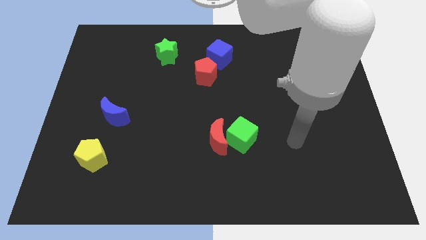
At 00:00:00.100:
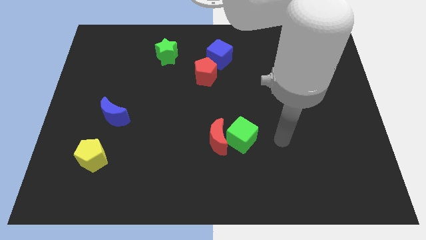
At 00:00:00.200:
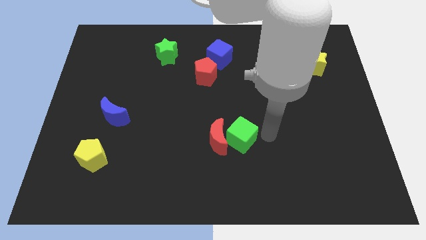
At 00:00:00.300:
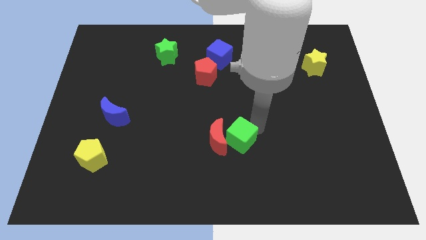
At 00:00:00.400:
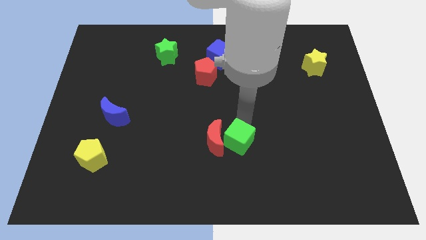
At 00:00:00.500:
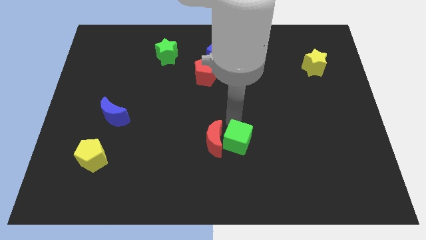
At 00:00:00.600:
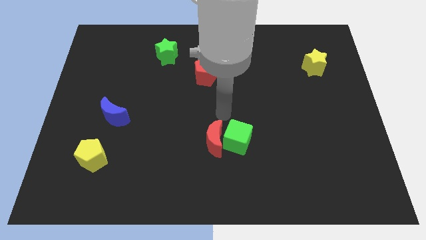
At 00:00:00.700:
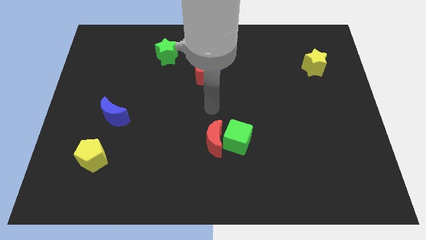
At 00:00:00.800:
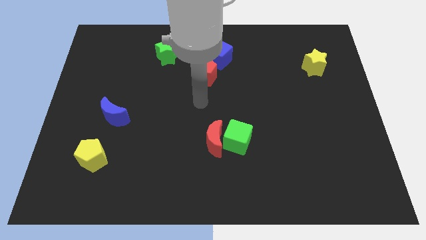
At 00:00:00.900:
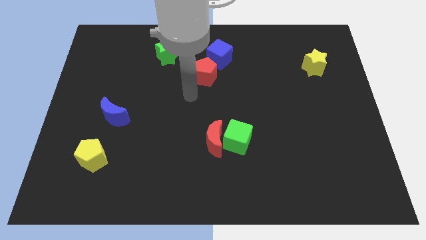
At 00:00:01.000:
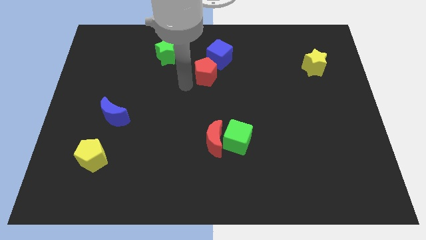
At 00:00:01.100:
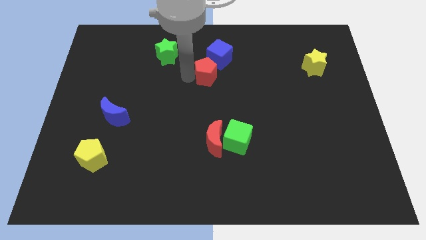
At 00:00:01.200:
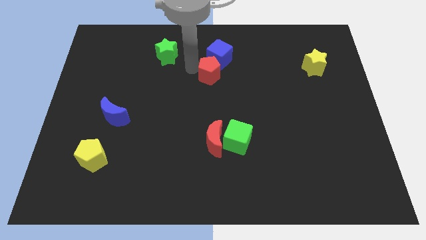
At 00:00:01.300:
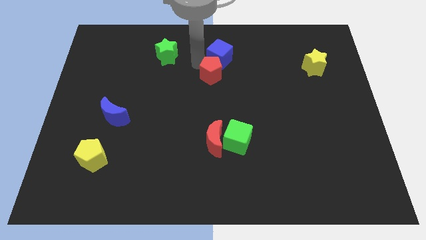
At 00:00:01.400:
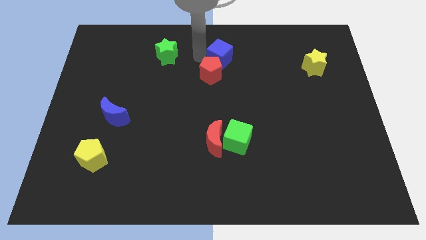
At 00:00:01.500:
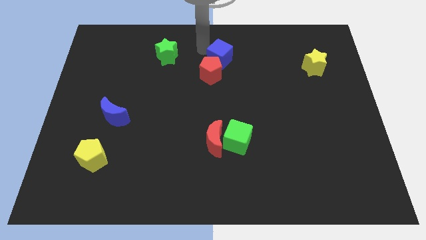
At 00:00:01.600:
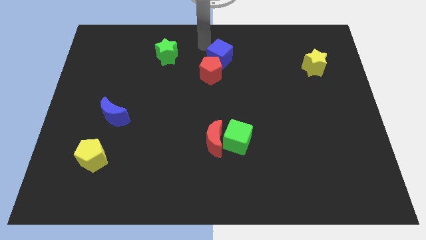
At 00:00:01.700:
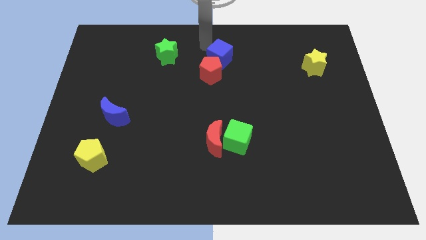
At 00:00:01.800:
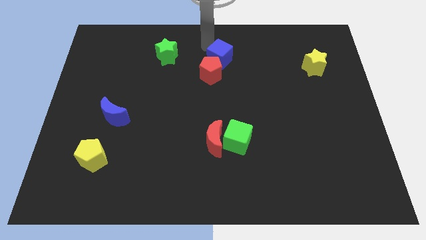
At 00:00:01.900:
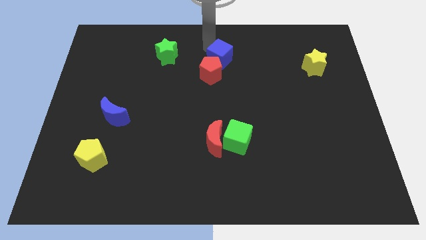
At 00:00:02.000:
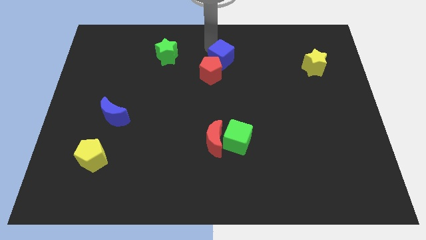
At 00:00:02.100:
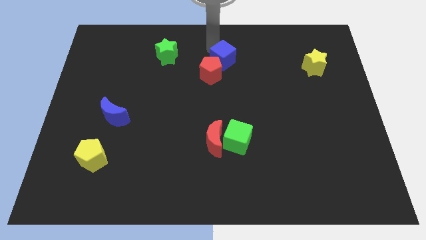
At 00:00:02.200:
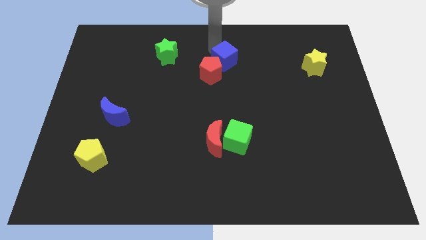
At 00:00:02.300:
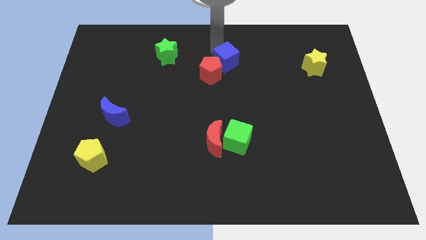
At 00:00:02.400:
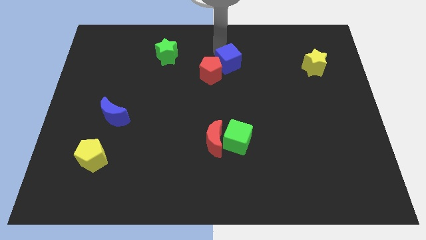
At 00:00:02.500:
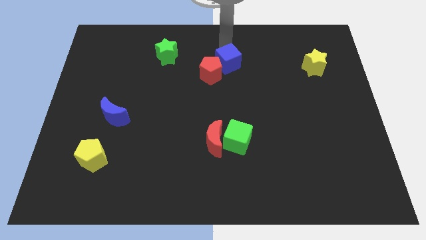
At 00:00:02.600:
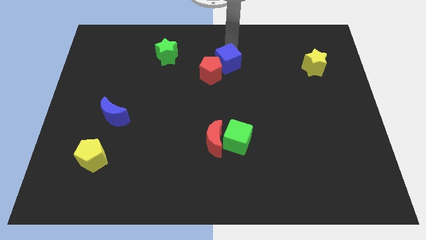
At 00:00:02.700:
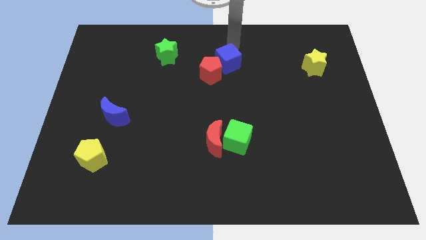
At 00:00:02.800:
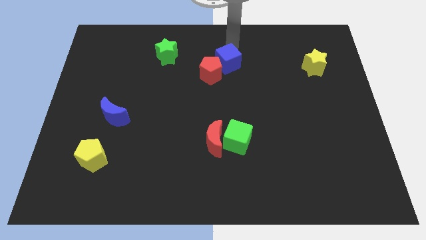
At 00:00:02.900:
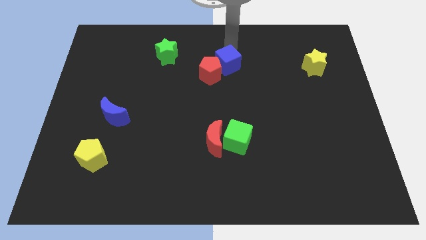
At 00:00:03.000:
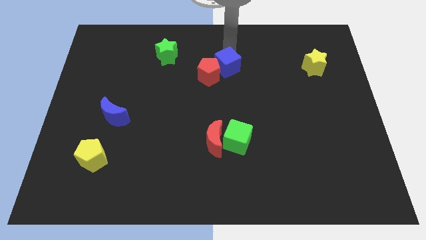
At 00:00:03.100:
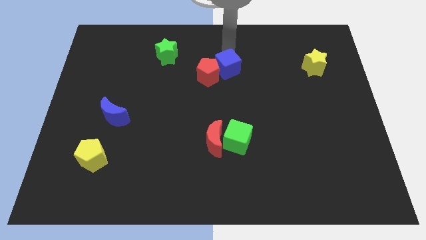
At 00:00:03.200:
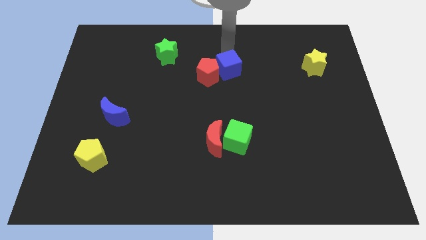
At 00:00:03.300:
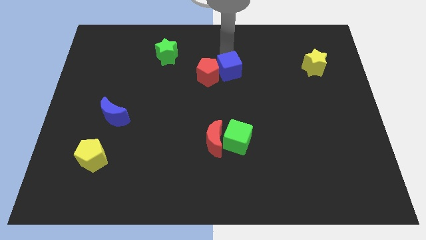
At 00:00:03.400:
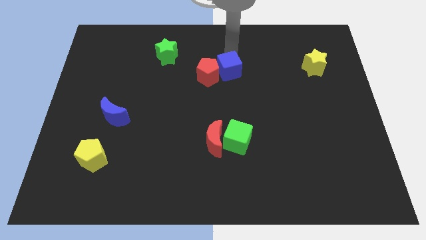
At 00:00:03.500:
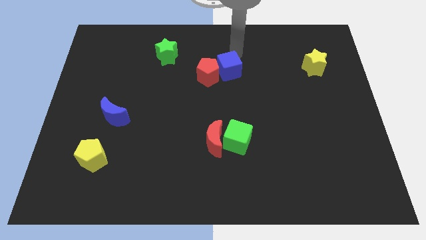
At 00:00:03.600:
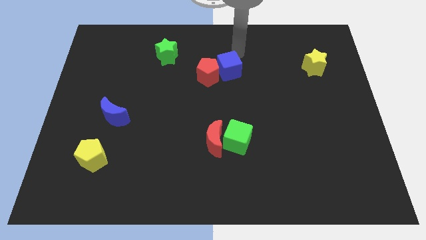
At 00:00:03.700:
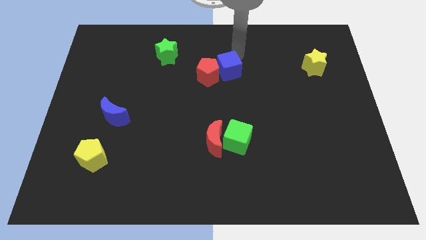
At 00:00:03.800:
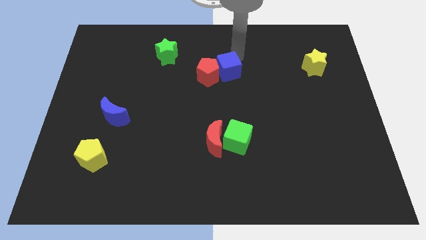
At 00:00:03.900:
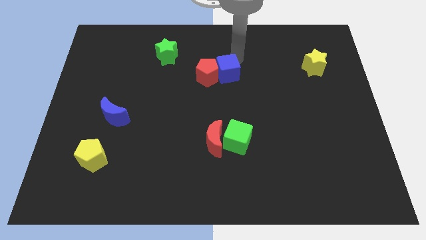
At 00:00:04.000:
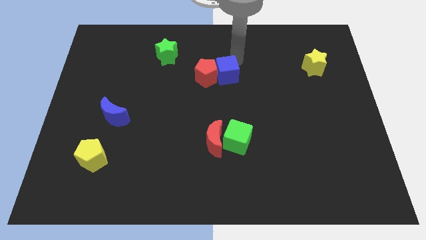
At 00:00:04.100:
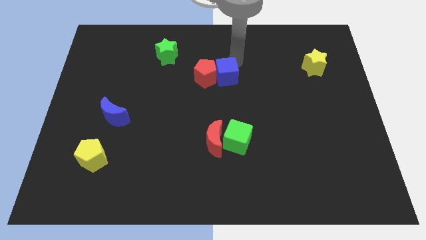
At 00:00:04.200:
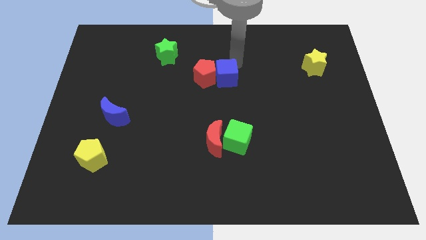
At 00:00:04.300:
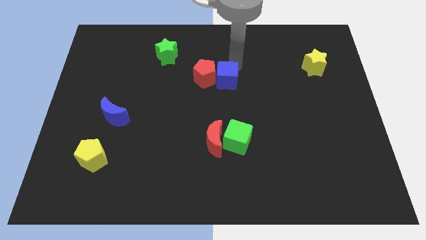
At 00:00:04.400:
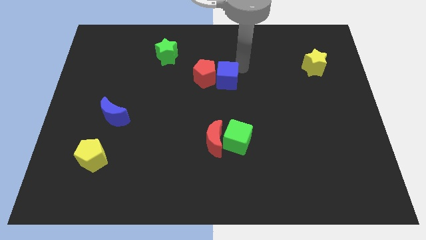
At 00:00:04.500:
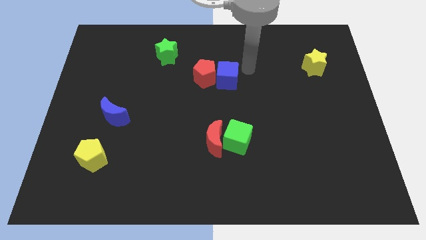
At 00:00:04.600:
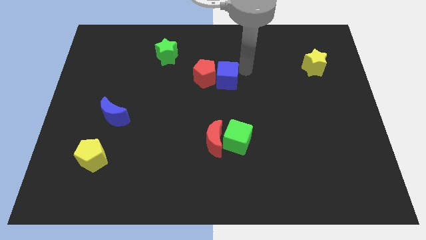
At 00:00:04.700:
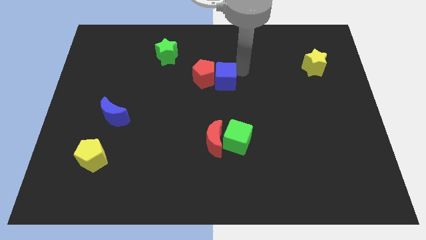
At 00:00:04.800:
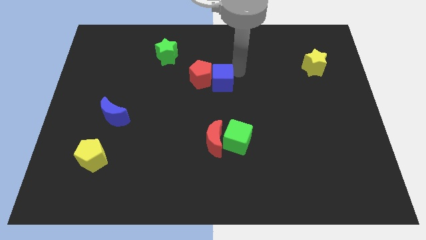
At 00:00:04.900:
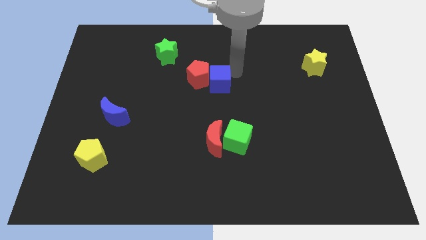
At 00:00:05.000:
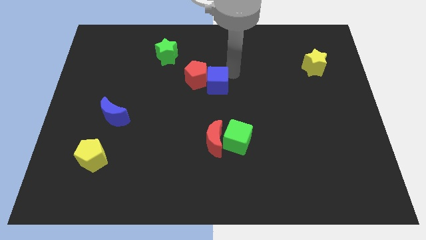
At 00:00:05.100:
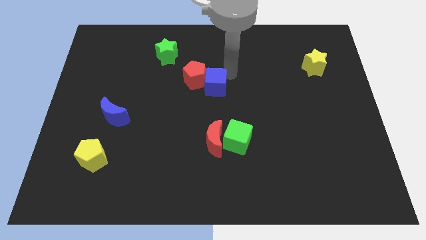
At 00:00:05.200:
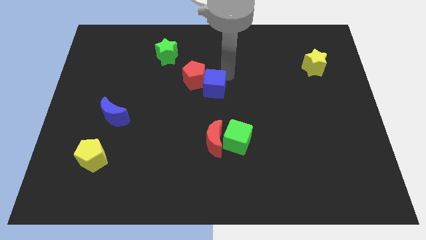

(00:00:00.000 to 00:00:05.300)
slightly push the blue cube down and to the left diagonally

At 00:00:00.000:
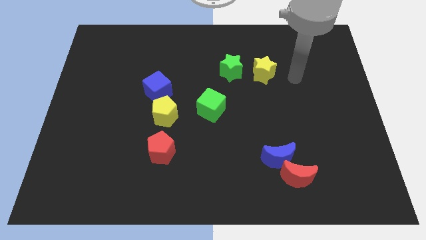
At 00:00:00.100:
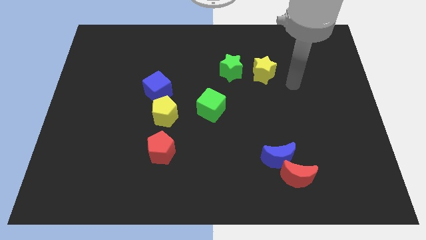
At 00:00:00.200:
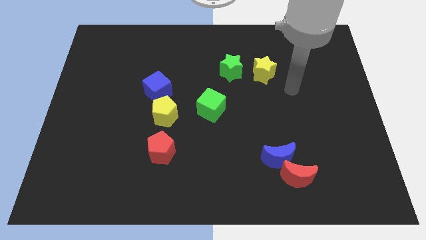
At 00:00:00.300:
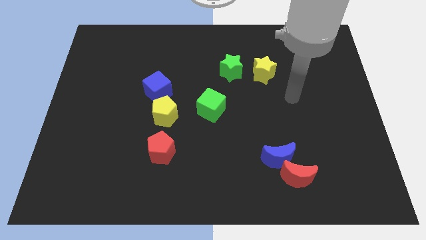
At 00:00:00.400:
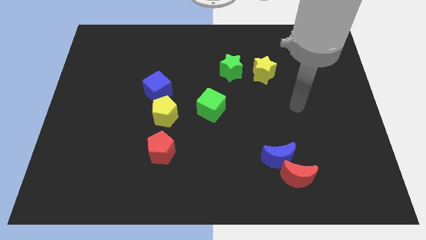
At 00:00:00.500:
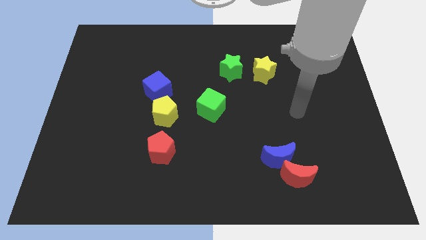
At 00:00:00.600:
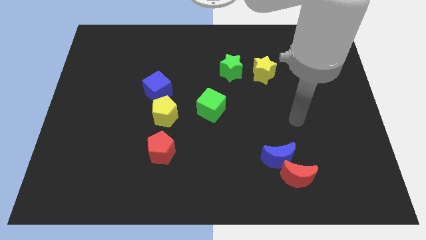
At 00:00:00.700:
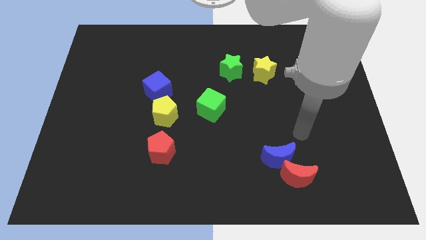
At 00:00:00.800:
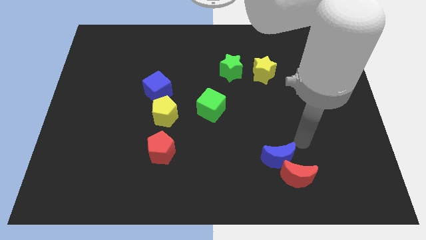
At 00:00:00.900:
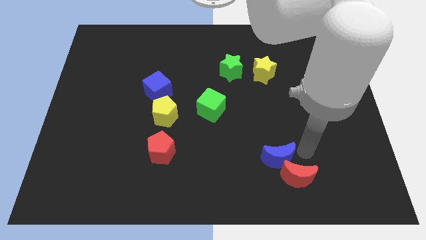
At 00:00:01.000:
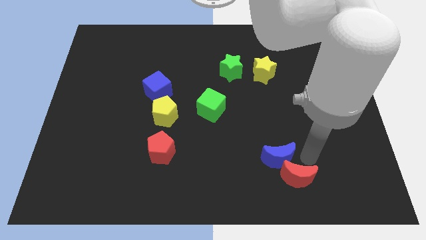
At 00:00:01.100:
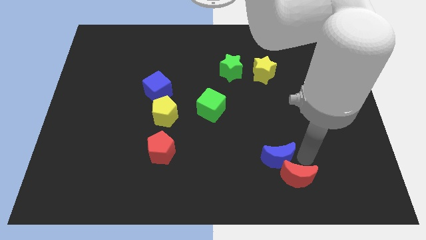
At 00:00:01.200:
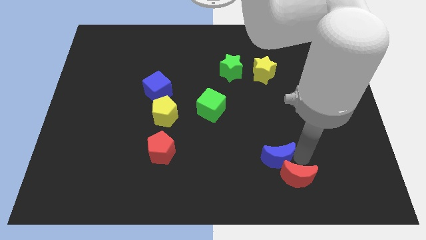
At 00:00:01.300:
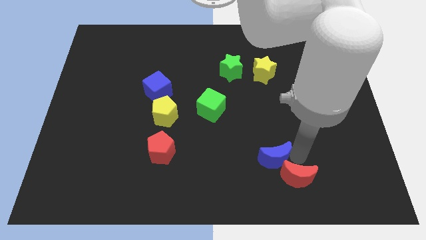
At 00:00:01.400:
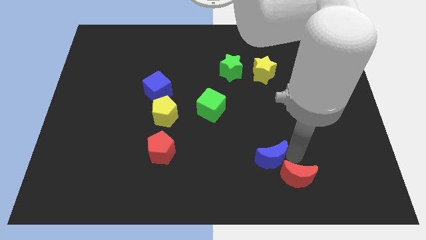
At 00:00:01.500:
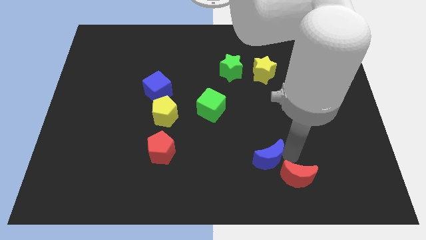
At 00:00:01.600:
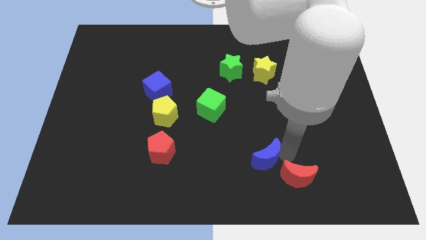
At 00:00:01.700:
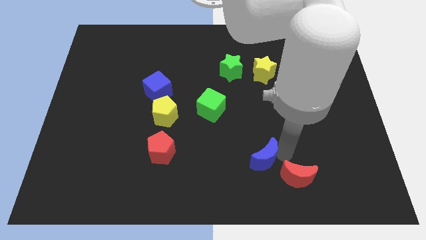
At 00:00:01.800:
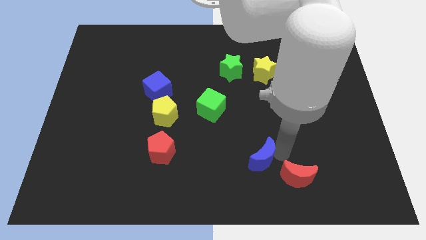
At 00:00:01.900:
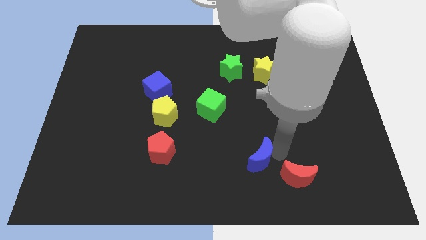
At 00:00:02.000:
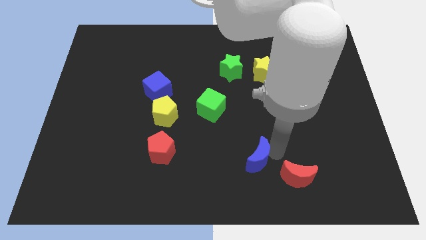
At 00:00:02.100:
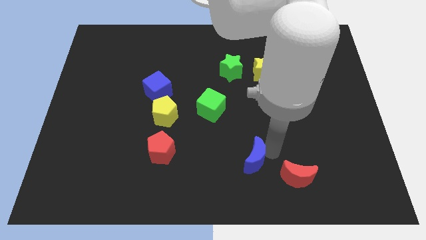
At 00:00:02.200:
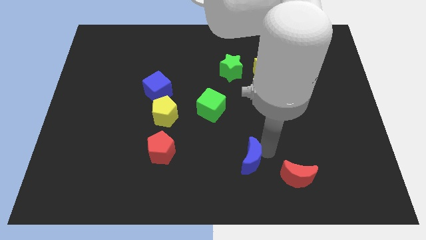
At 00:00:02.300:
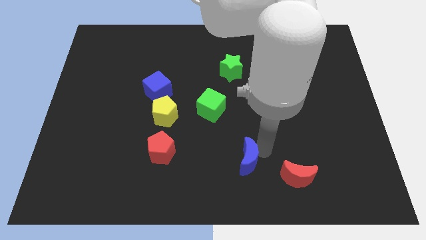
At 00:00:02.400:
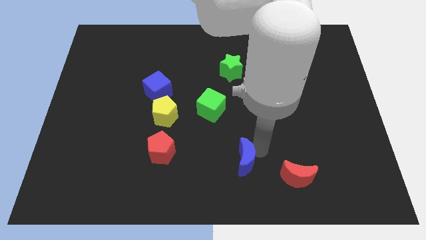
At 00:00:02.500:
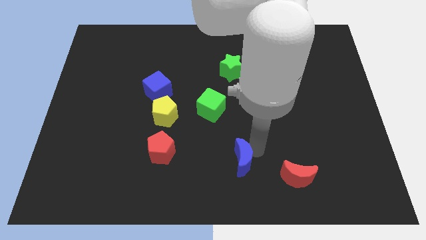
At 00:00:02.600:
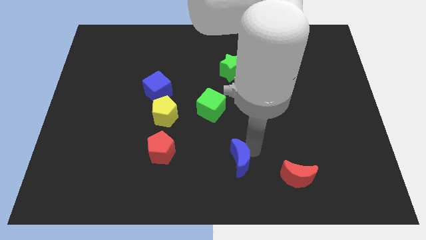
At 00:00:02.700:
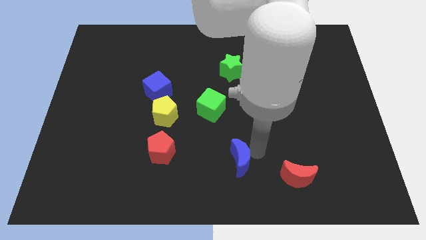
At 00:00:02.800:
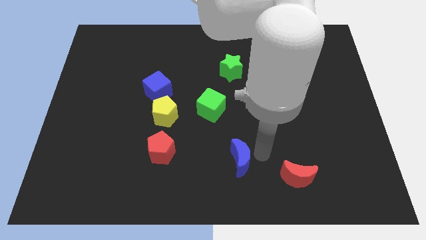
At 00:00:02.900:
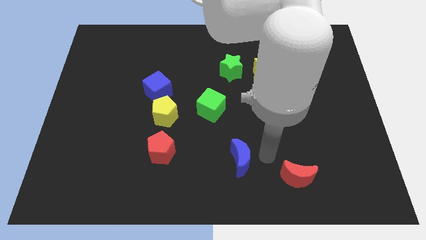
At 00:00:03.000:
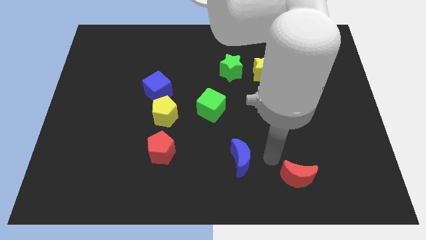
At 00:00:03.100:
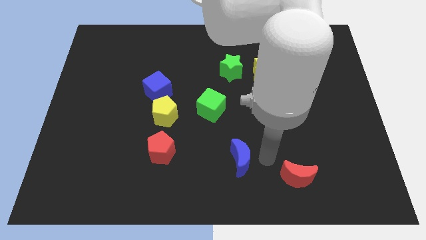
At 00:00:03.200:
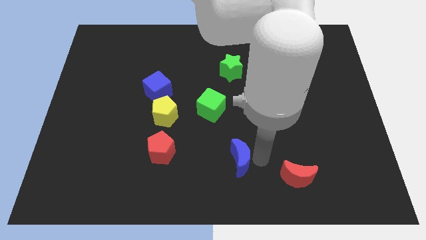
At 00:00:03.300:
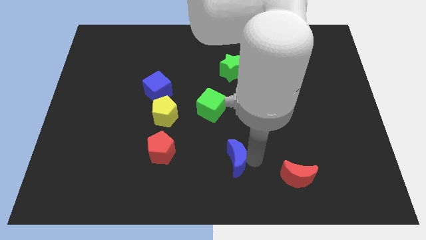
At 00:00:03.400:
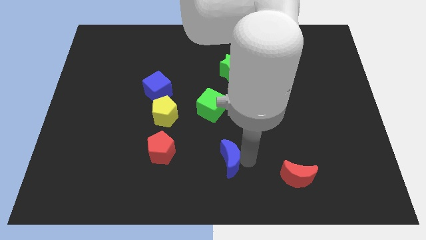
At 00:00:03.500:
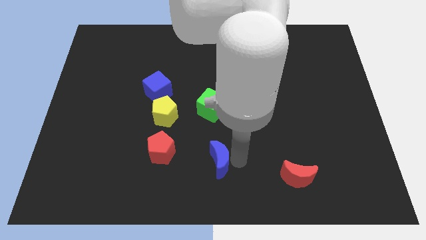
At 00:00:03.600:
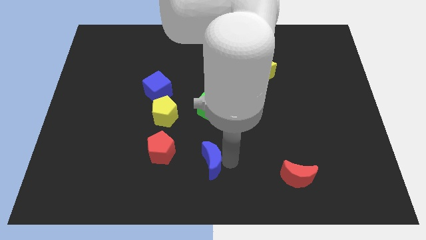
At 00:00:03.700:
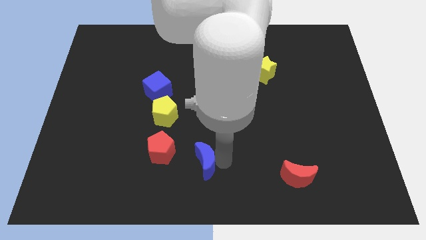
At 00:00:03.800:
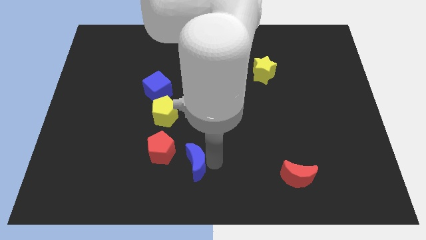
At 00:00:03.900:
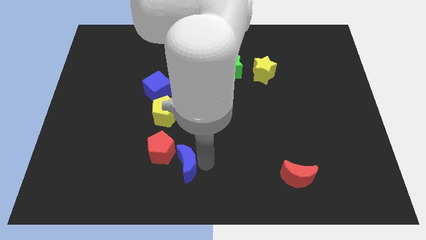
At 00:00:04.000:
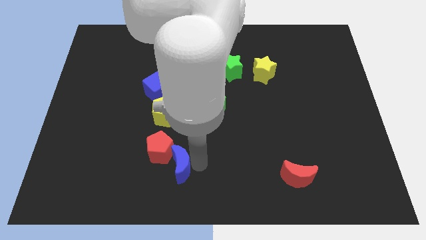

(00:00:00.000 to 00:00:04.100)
push the blue moon to the left
